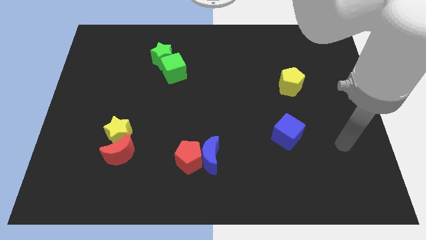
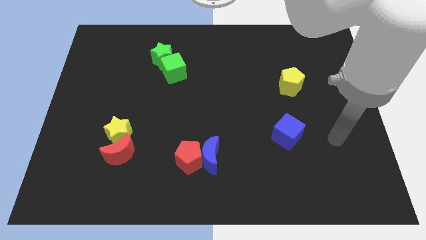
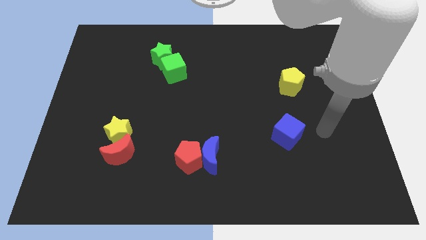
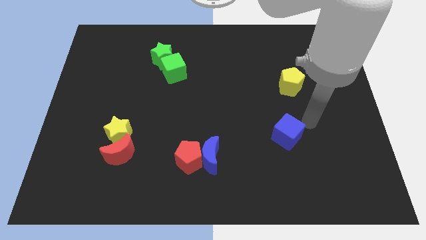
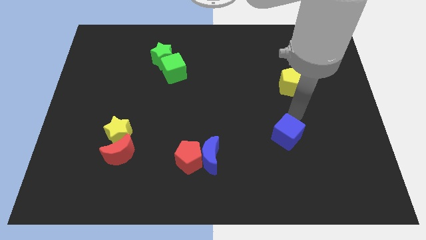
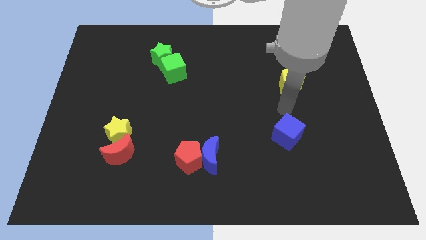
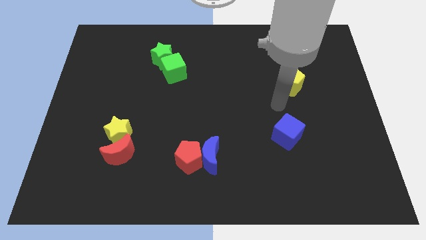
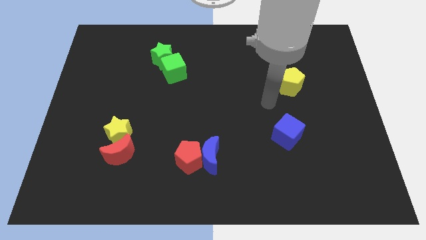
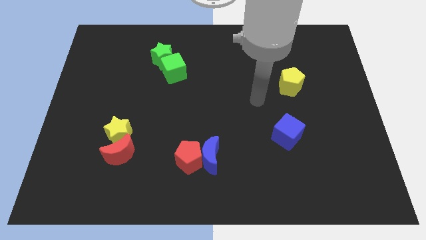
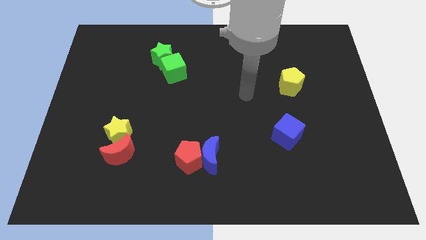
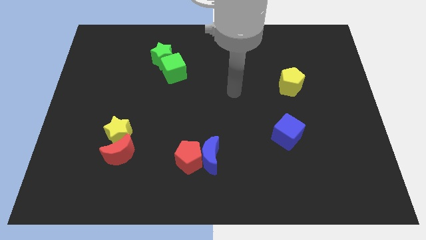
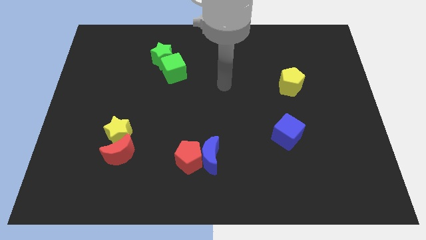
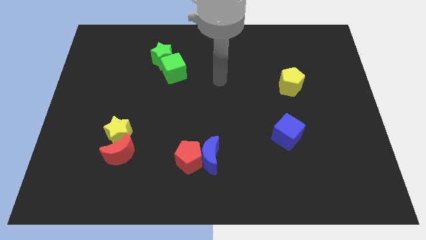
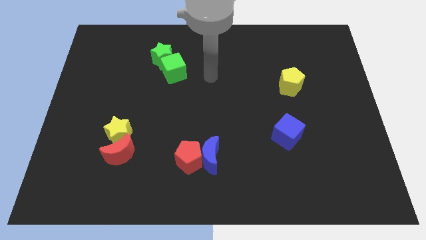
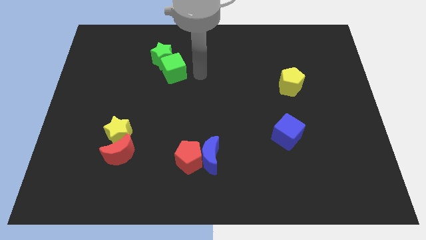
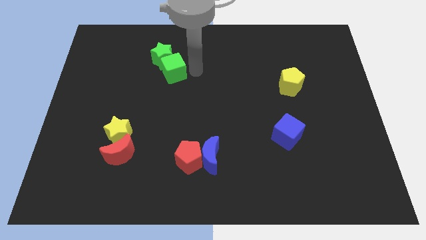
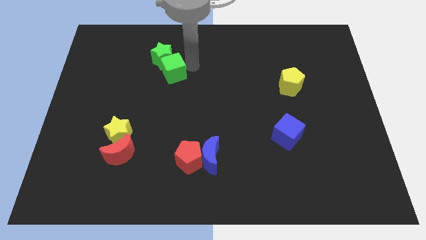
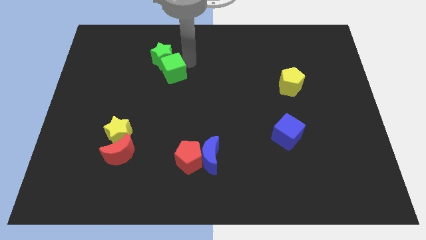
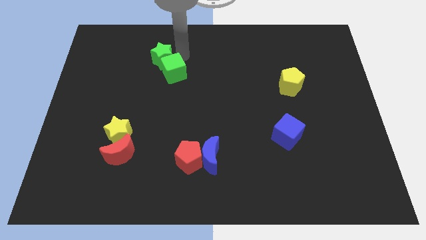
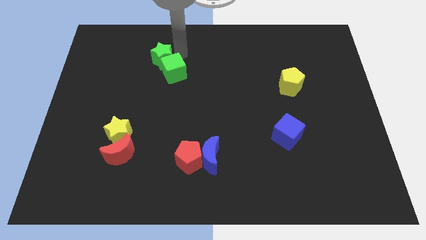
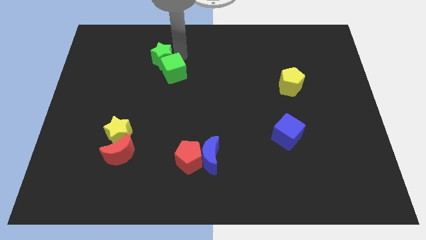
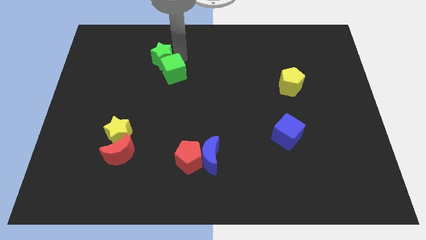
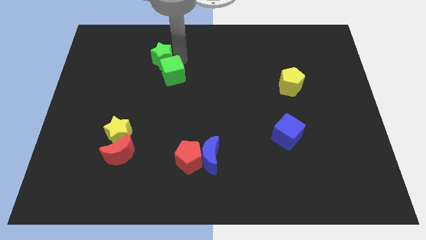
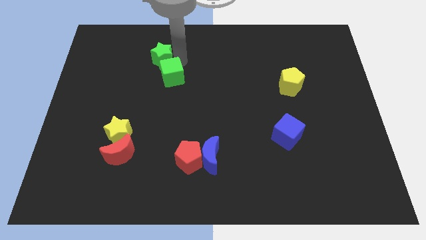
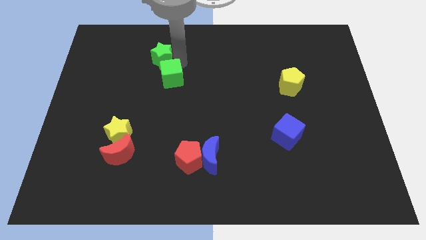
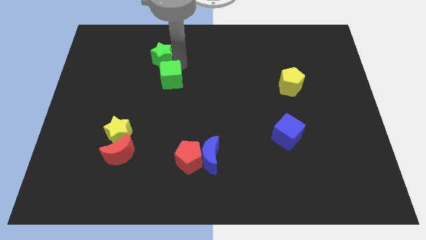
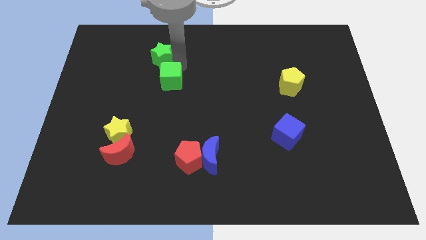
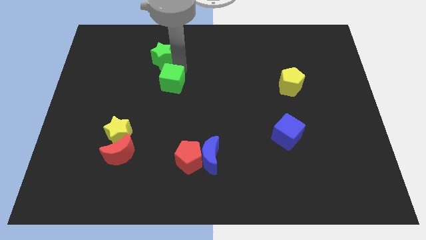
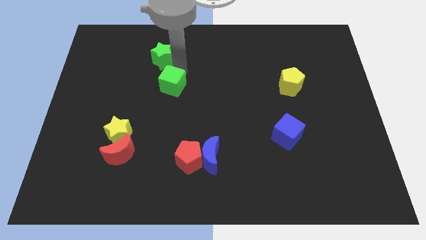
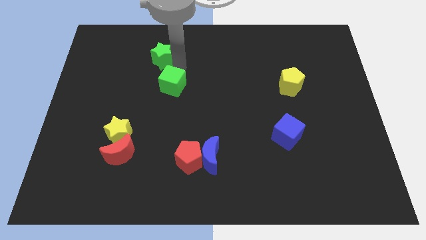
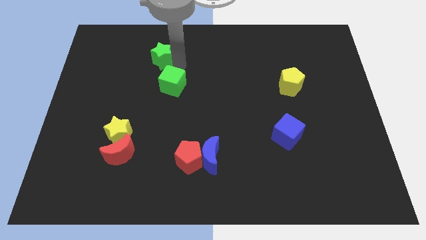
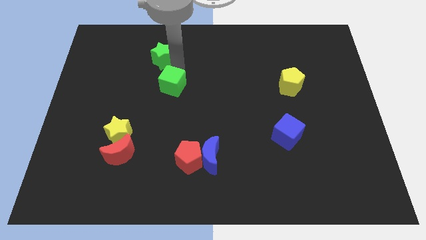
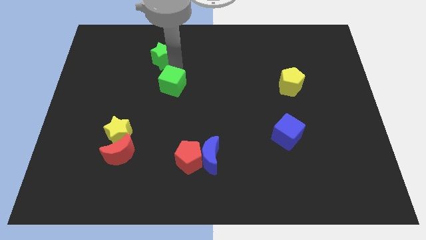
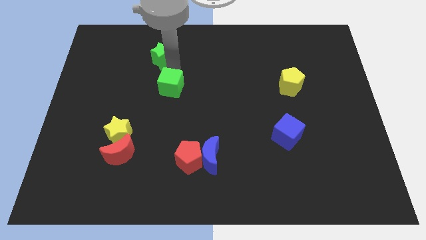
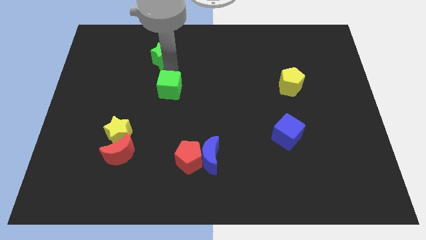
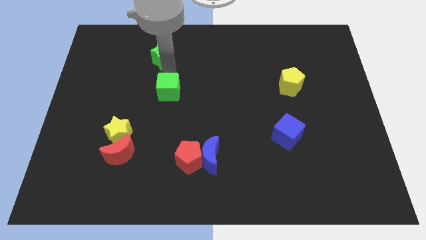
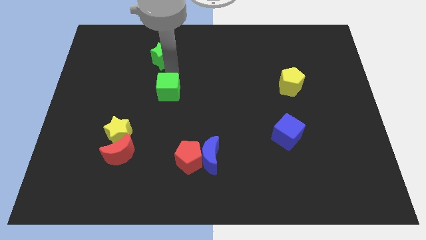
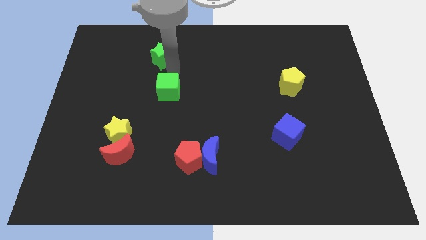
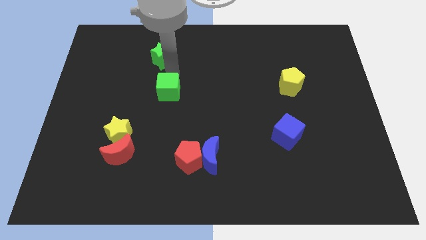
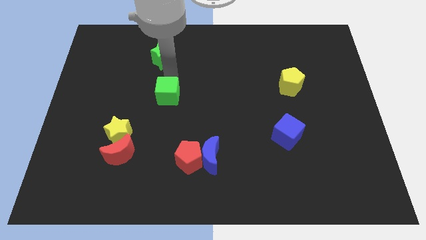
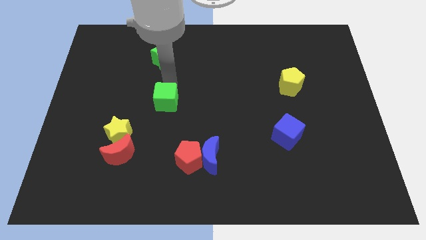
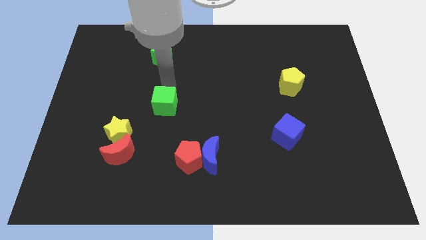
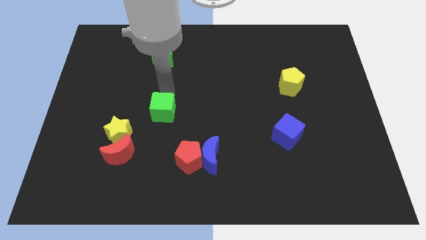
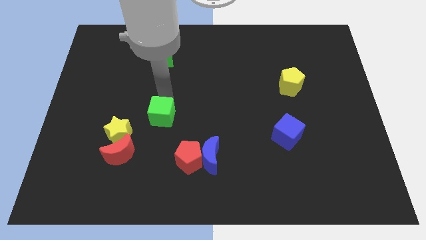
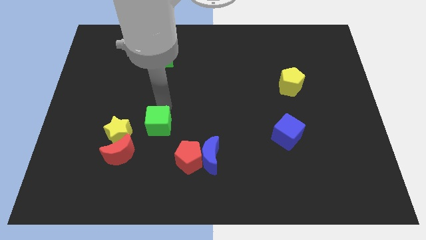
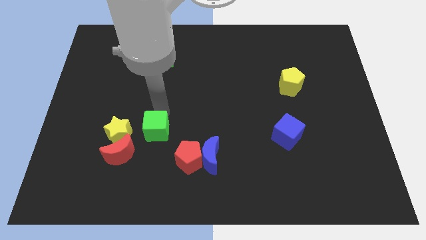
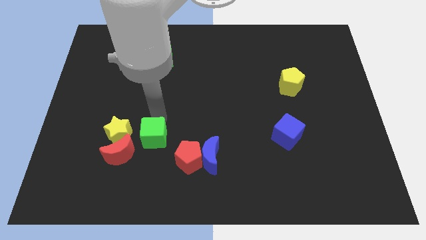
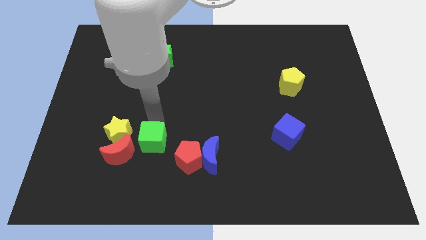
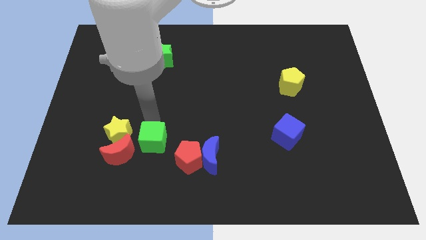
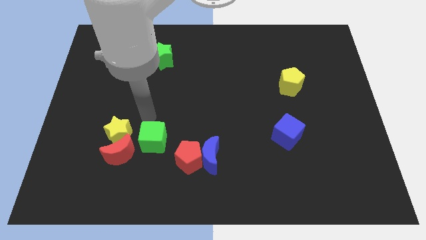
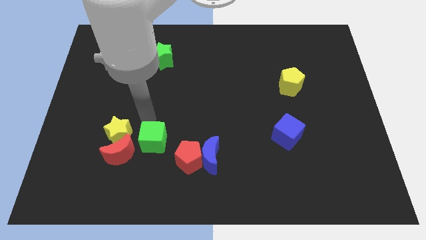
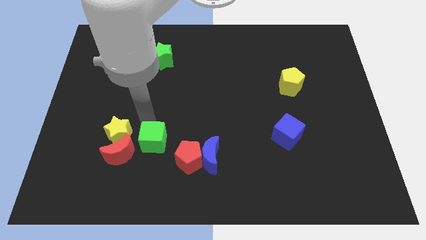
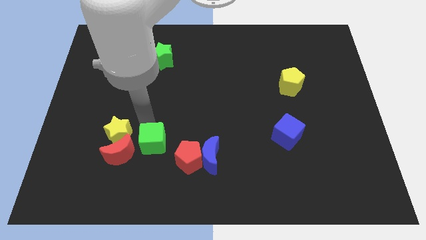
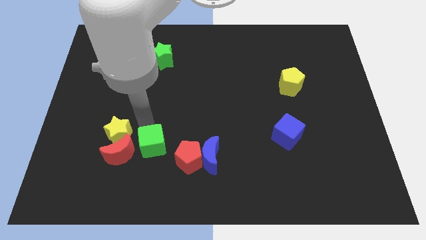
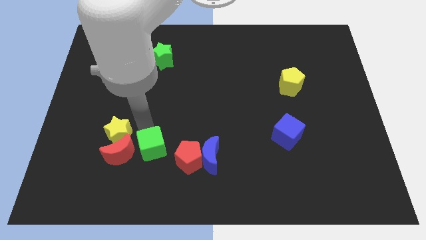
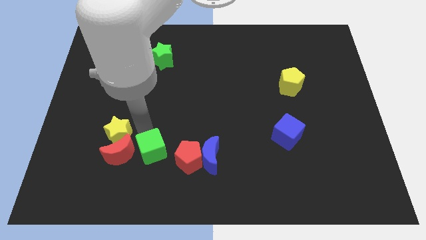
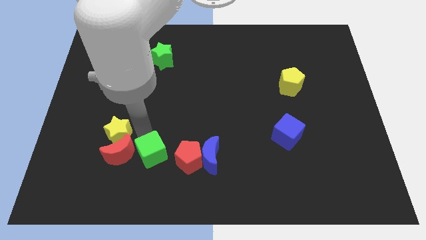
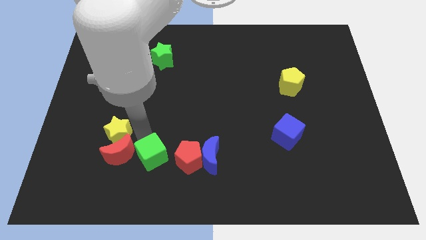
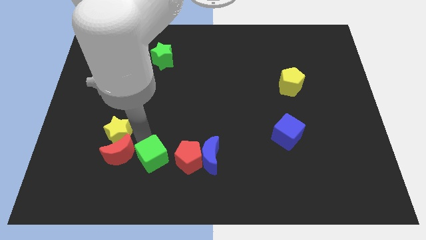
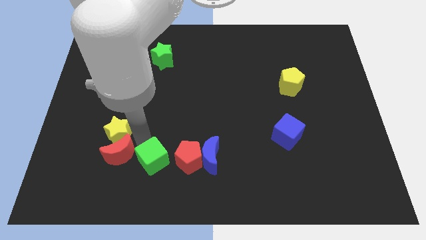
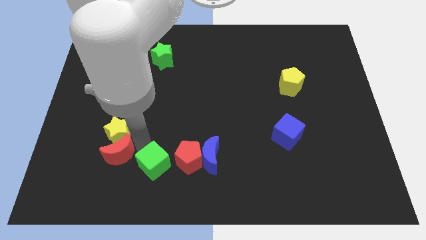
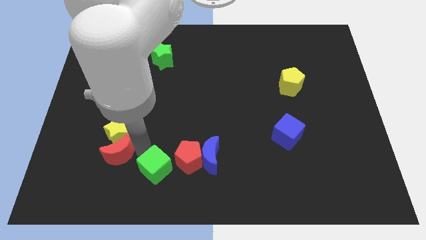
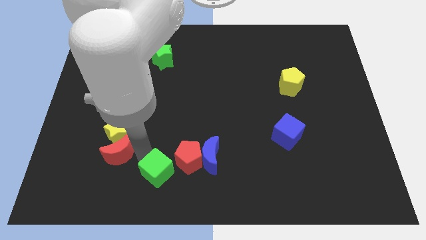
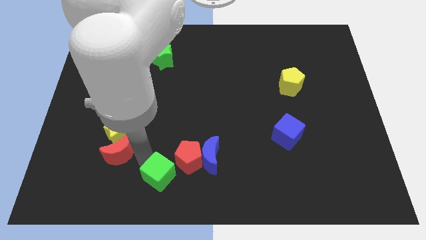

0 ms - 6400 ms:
slide the green cube to the bottom side
